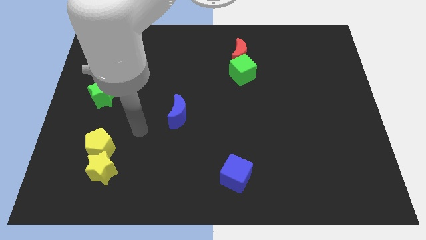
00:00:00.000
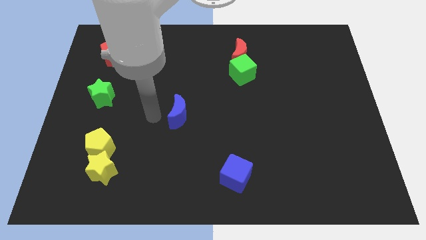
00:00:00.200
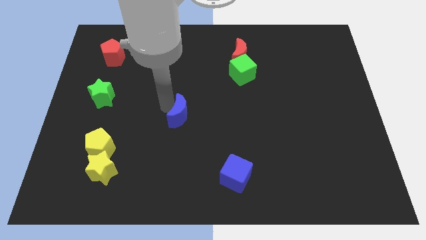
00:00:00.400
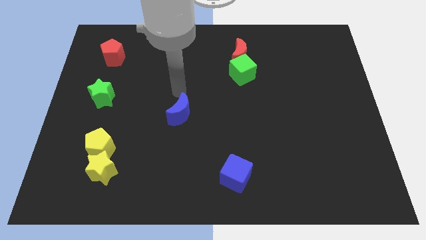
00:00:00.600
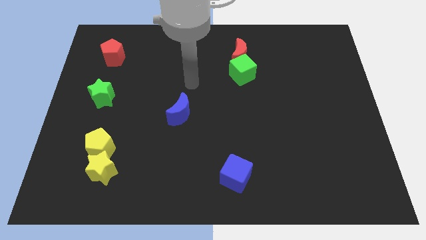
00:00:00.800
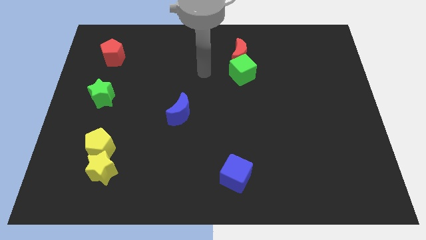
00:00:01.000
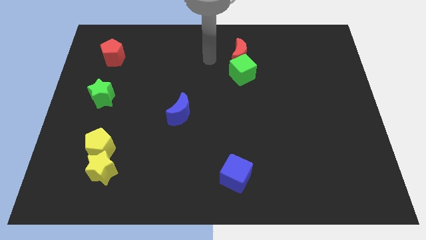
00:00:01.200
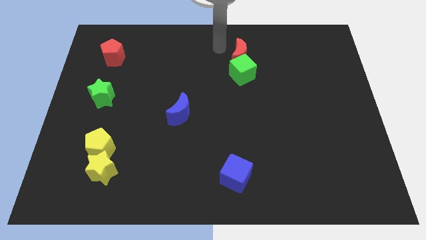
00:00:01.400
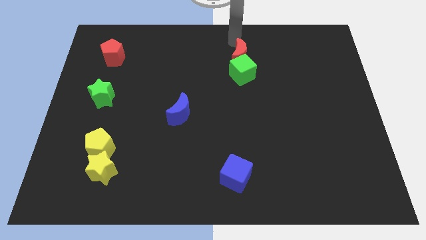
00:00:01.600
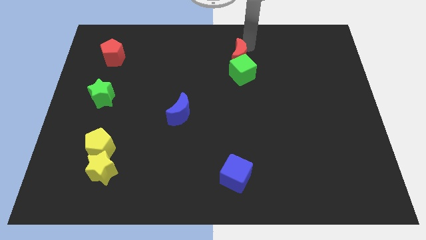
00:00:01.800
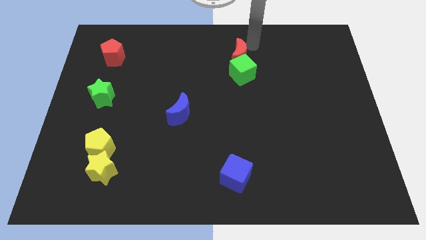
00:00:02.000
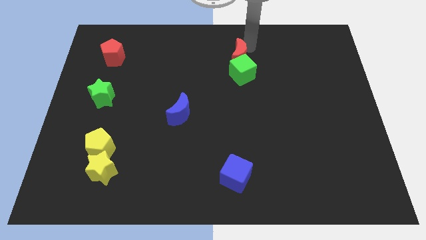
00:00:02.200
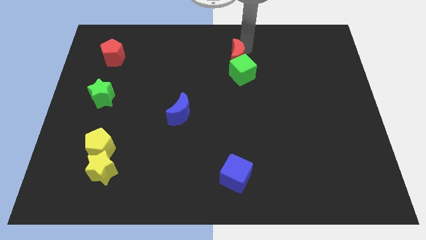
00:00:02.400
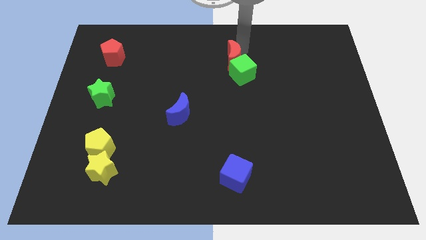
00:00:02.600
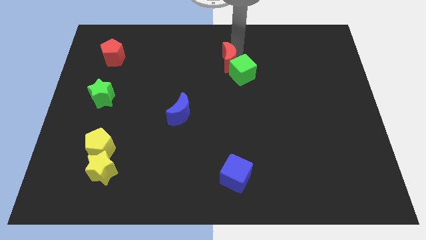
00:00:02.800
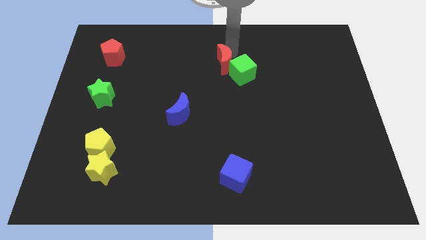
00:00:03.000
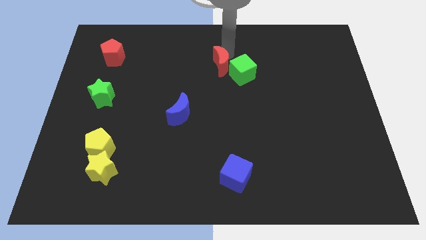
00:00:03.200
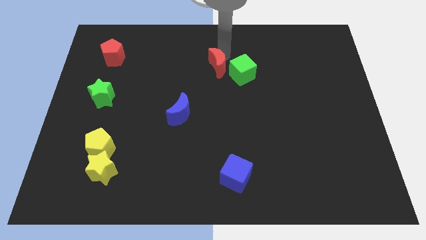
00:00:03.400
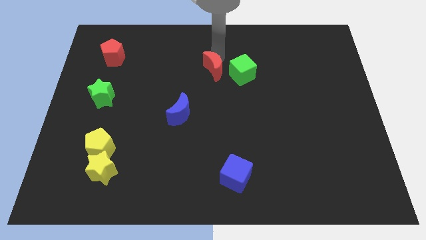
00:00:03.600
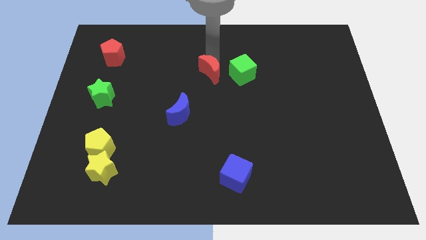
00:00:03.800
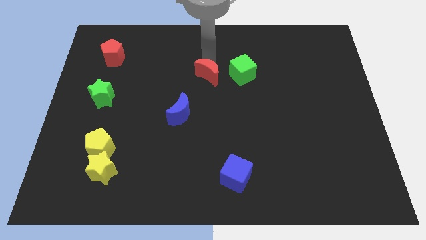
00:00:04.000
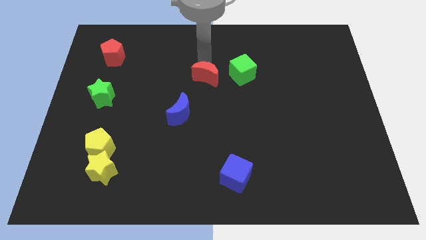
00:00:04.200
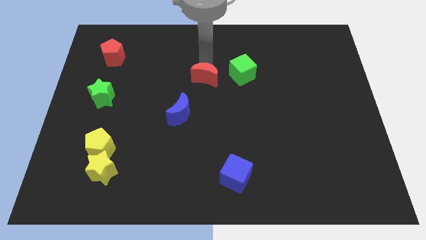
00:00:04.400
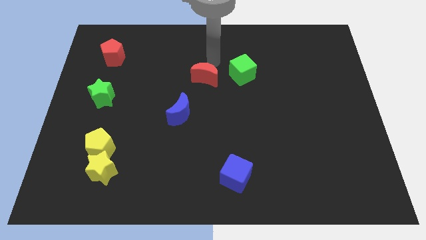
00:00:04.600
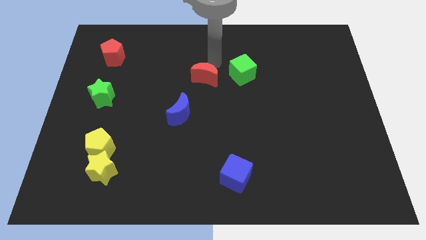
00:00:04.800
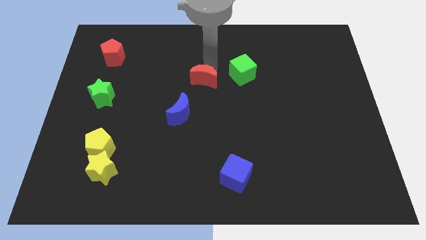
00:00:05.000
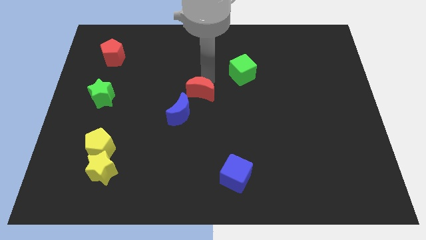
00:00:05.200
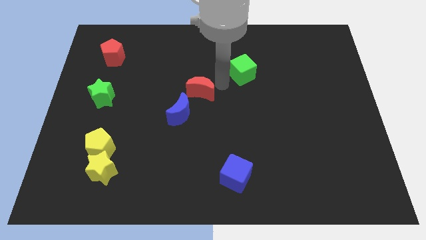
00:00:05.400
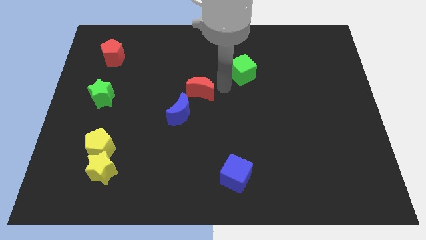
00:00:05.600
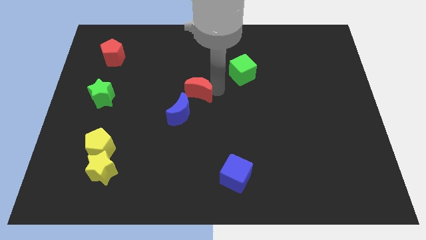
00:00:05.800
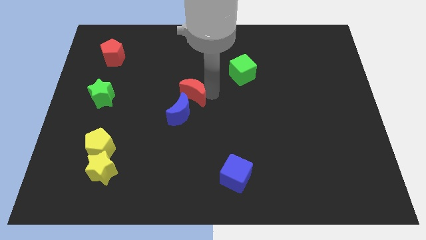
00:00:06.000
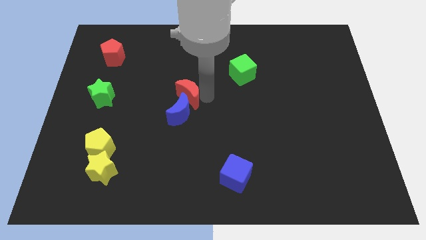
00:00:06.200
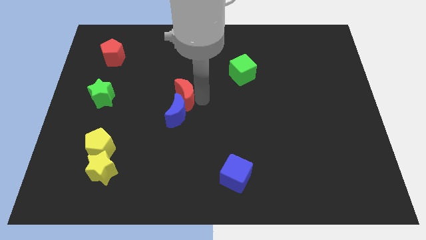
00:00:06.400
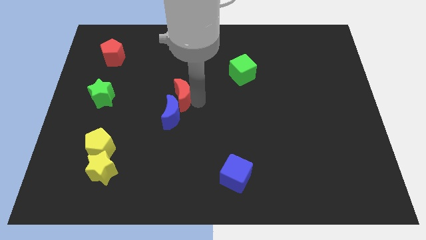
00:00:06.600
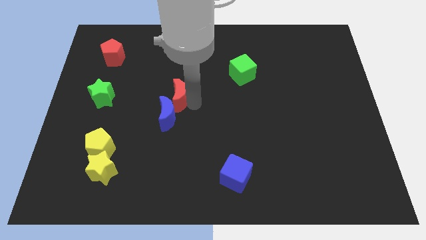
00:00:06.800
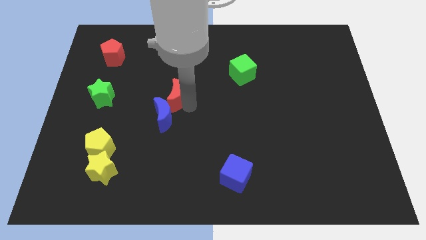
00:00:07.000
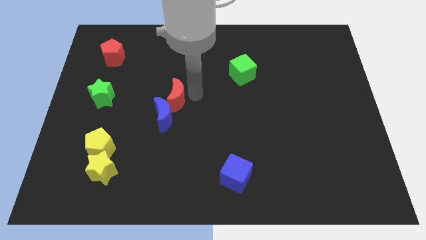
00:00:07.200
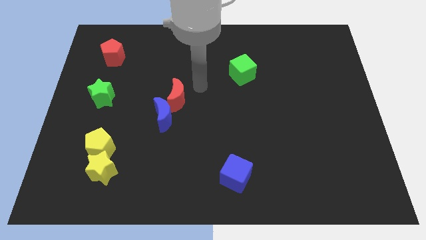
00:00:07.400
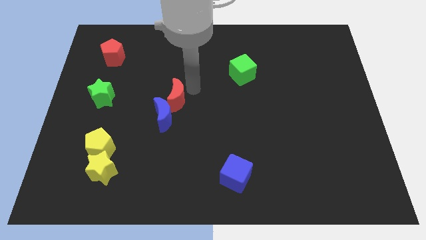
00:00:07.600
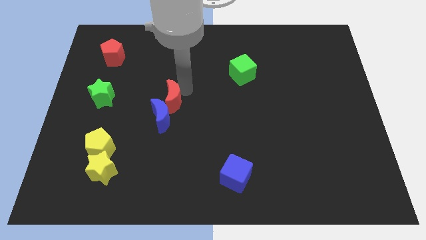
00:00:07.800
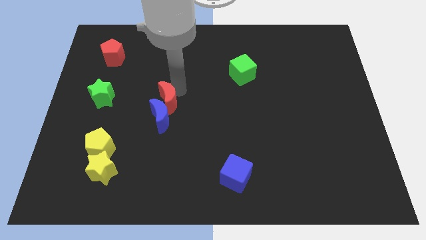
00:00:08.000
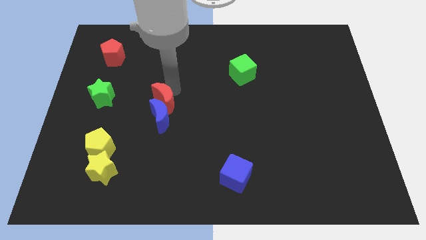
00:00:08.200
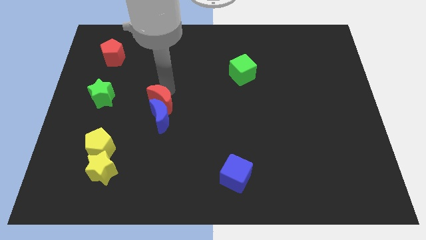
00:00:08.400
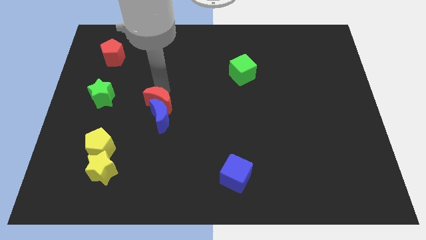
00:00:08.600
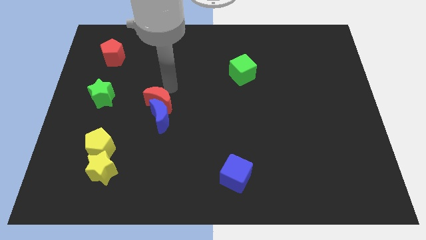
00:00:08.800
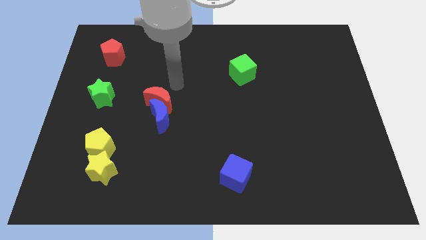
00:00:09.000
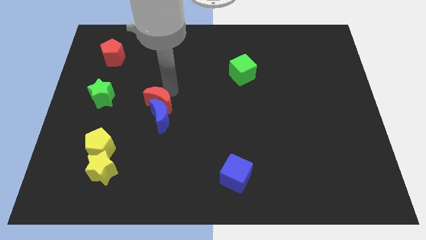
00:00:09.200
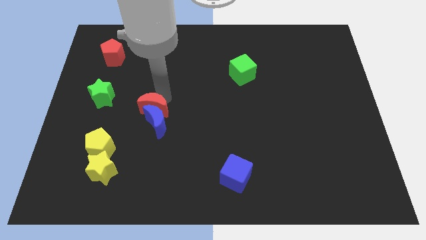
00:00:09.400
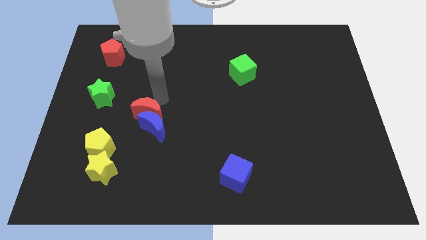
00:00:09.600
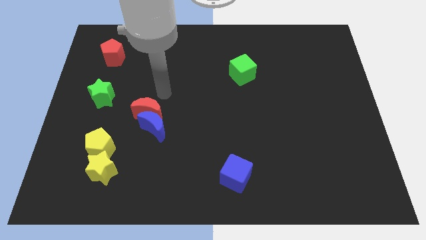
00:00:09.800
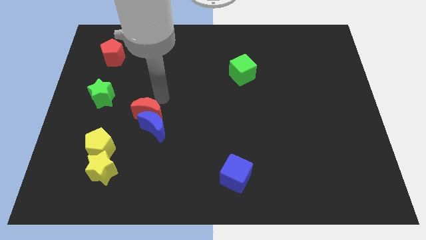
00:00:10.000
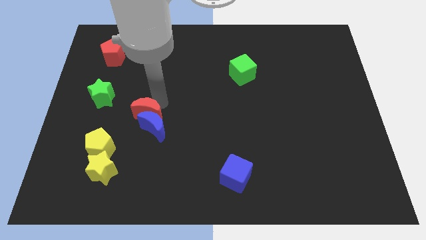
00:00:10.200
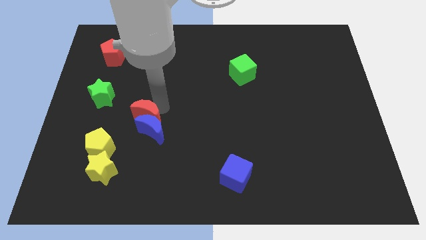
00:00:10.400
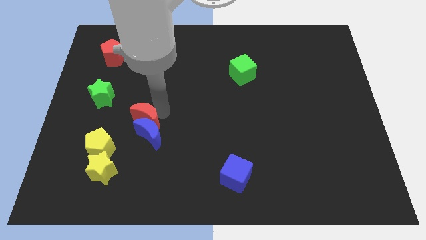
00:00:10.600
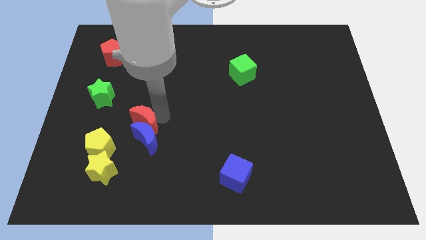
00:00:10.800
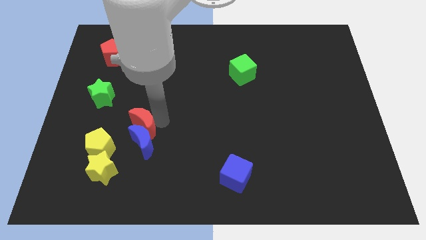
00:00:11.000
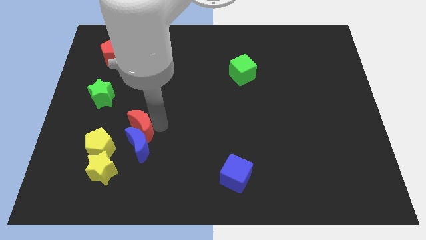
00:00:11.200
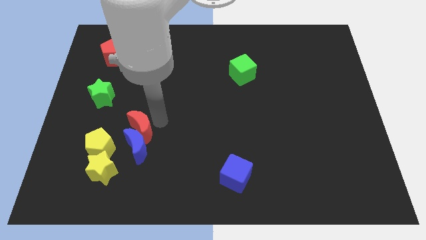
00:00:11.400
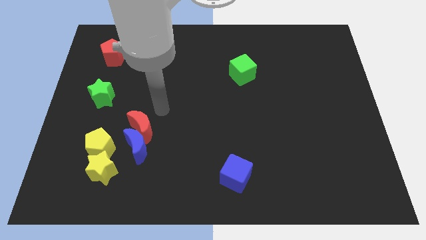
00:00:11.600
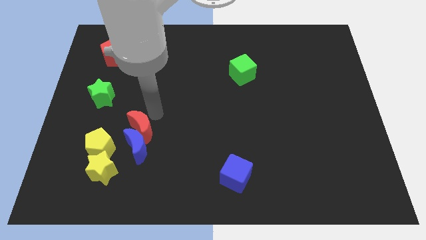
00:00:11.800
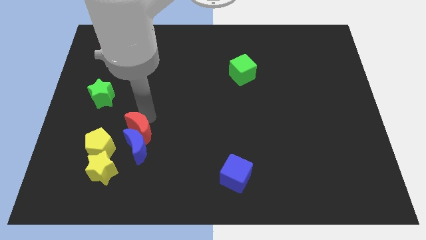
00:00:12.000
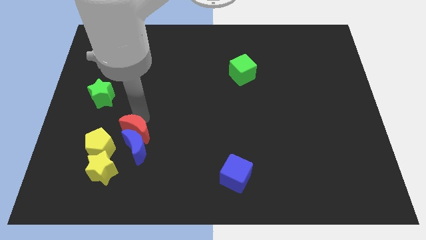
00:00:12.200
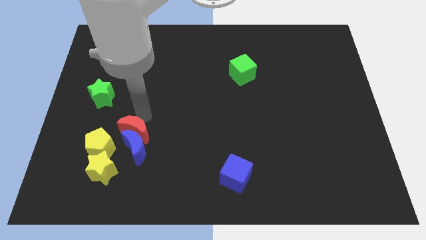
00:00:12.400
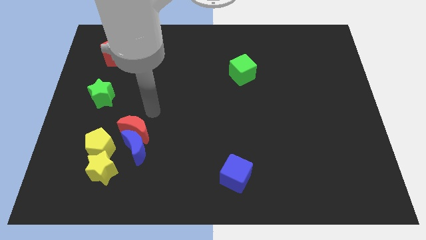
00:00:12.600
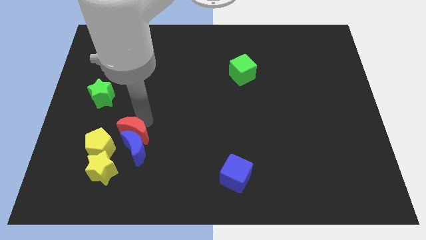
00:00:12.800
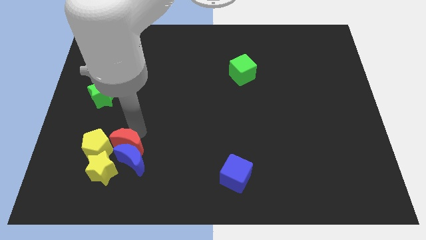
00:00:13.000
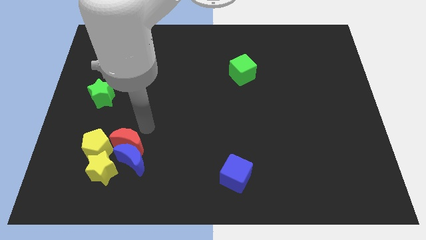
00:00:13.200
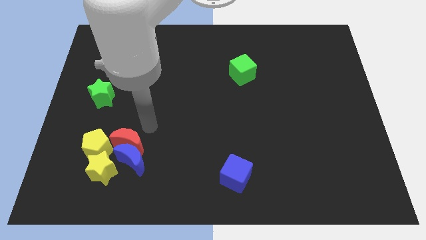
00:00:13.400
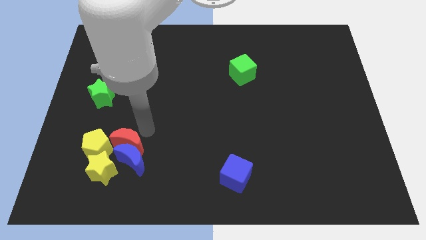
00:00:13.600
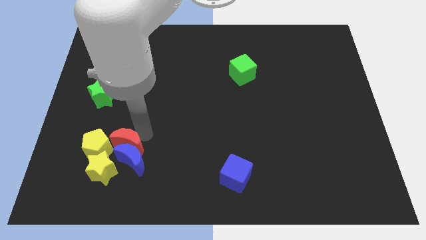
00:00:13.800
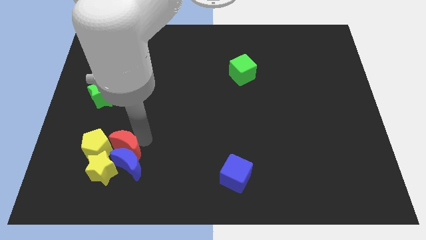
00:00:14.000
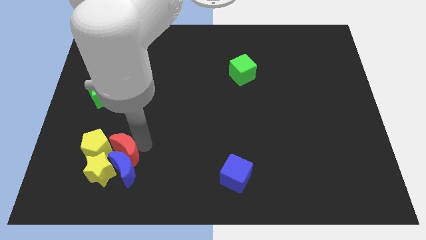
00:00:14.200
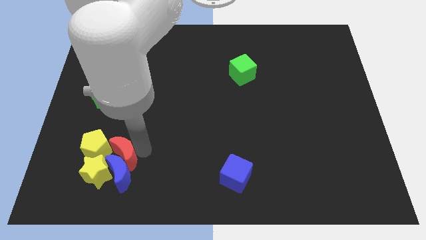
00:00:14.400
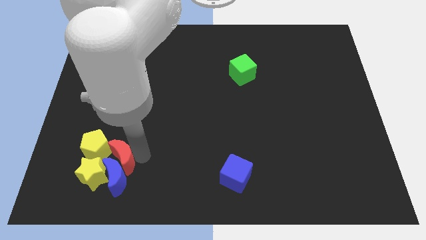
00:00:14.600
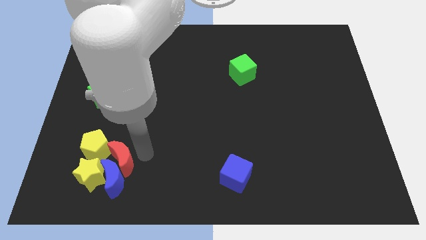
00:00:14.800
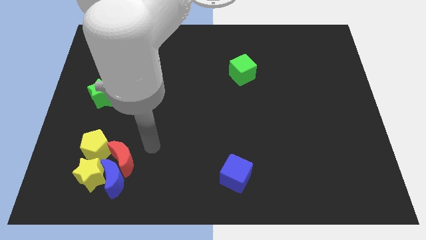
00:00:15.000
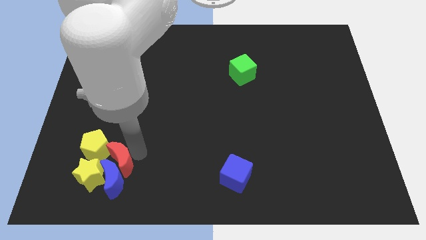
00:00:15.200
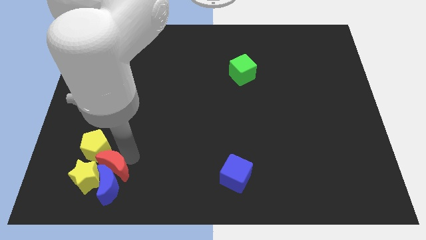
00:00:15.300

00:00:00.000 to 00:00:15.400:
slide the red moon next to the yellow star
